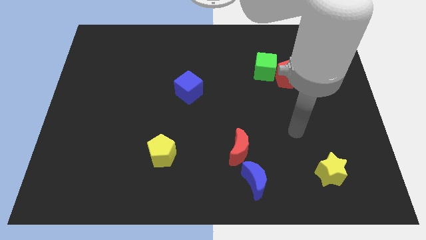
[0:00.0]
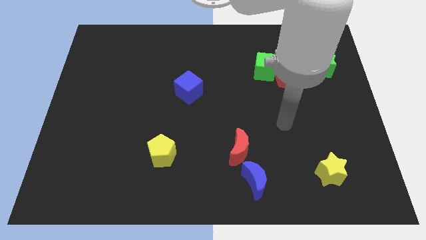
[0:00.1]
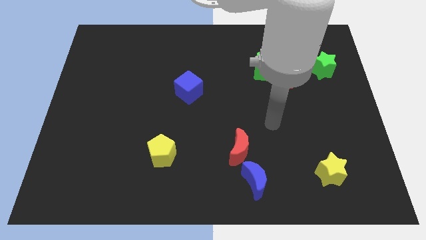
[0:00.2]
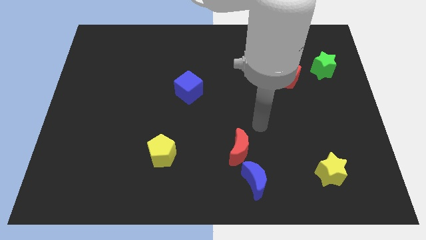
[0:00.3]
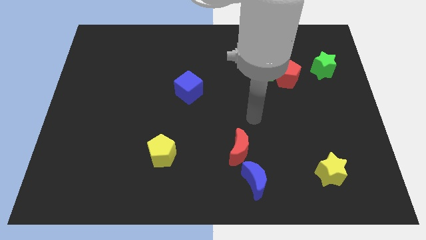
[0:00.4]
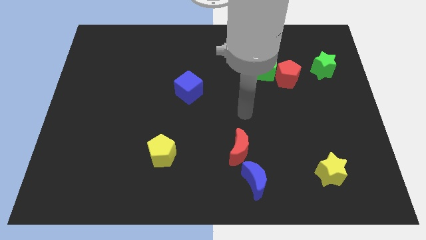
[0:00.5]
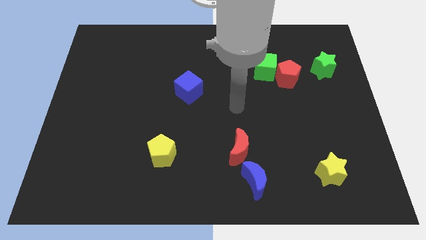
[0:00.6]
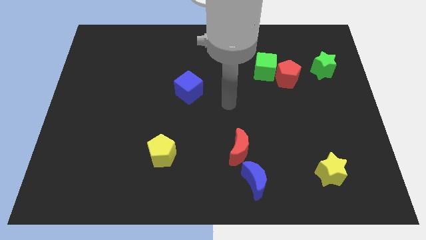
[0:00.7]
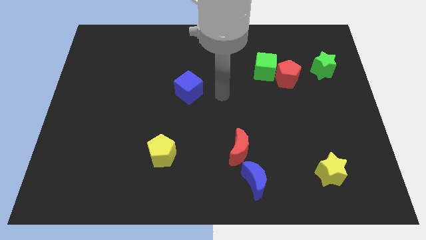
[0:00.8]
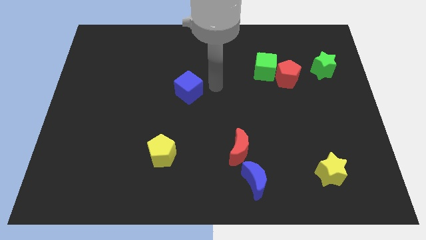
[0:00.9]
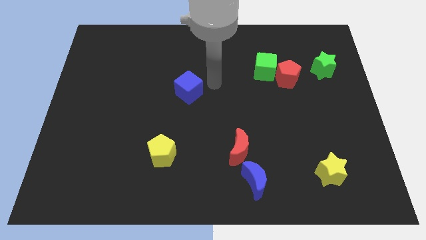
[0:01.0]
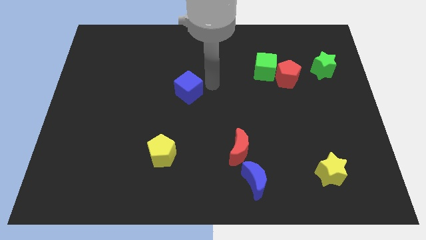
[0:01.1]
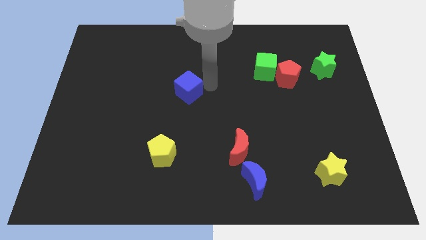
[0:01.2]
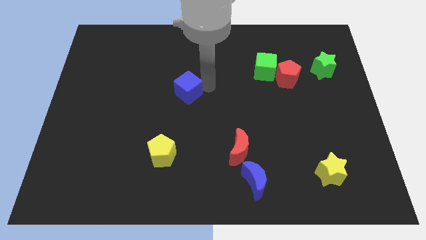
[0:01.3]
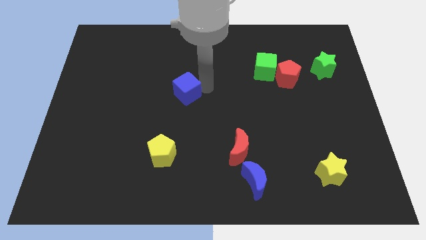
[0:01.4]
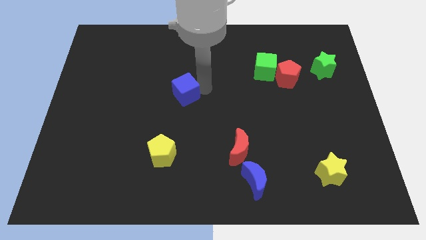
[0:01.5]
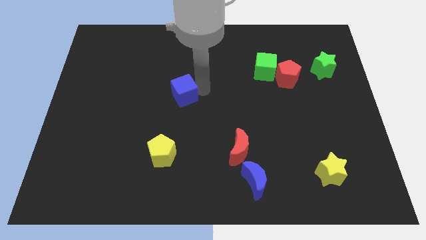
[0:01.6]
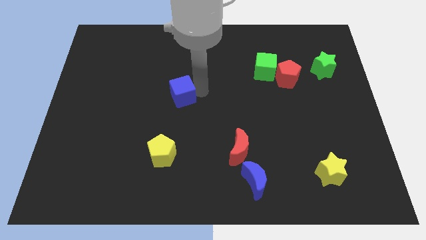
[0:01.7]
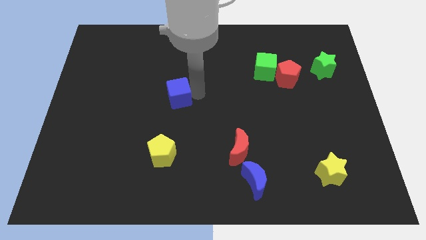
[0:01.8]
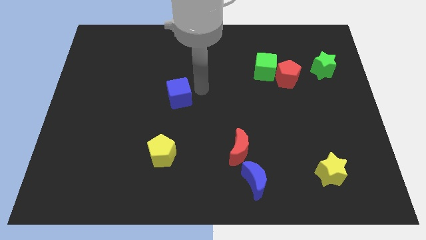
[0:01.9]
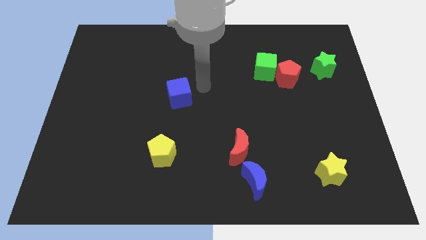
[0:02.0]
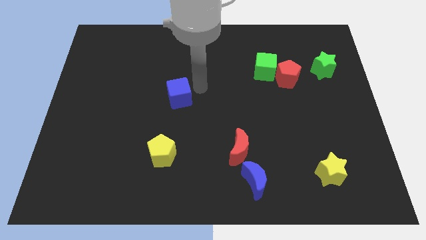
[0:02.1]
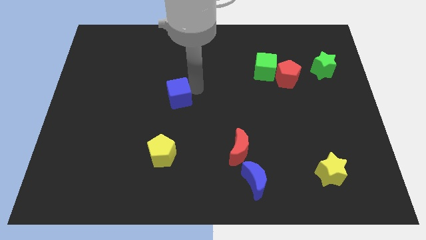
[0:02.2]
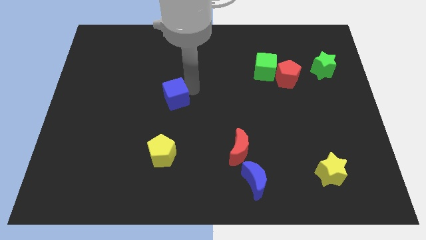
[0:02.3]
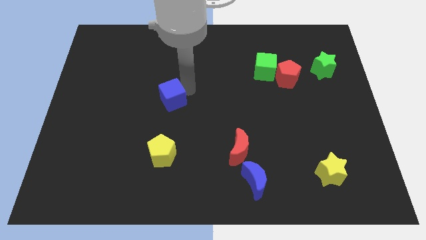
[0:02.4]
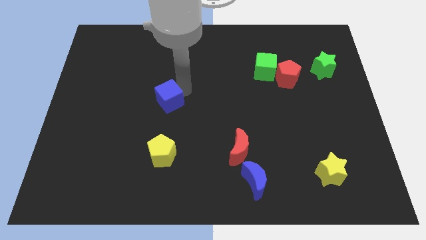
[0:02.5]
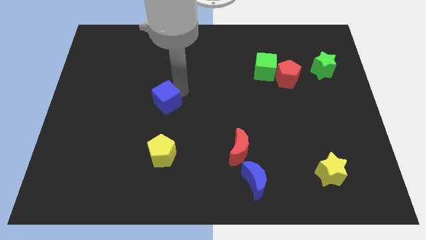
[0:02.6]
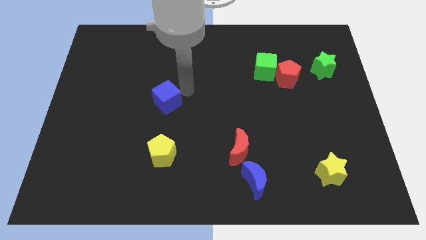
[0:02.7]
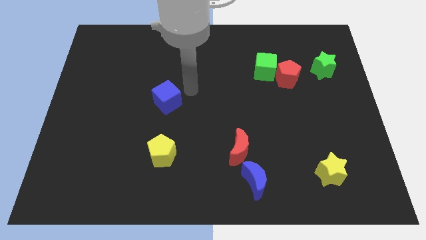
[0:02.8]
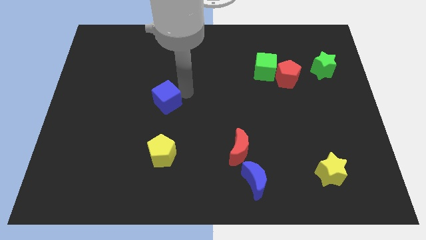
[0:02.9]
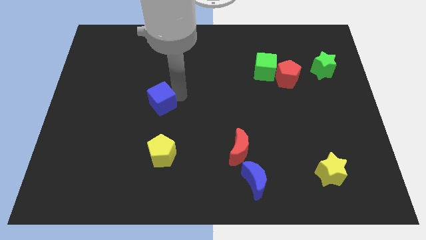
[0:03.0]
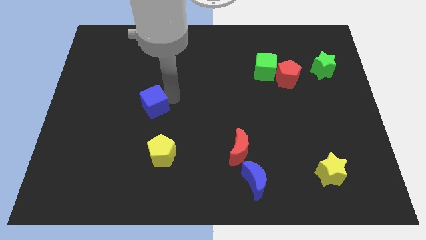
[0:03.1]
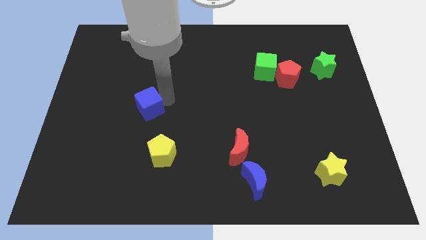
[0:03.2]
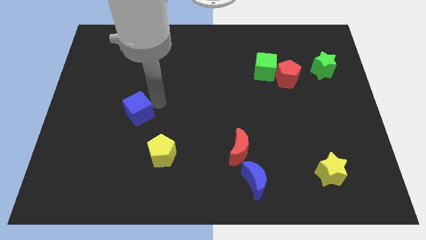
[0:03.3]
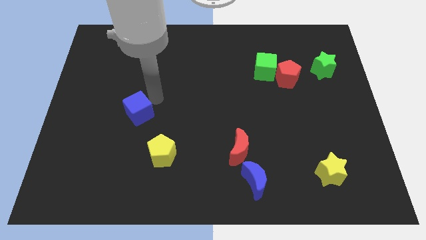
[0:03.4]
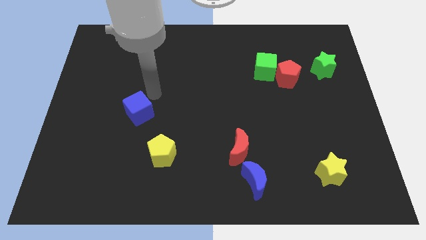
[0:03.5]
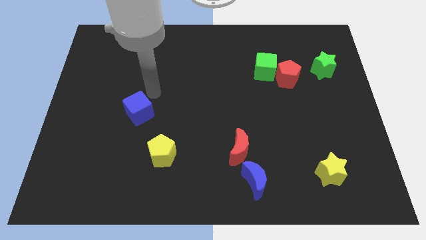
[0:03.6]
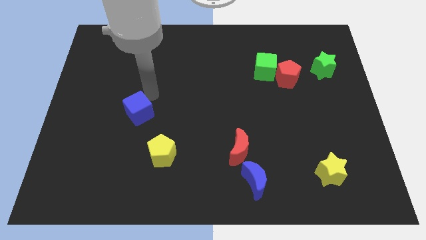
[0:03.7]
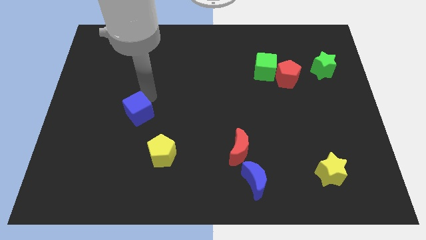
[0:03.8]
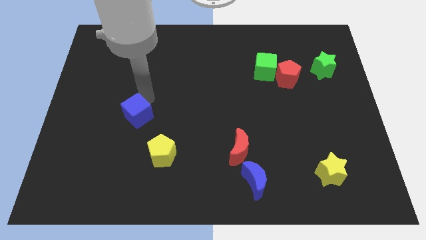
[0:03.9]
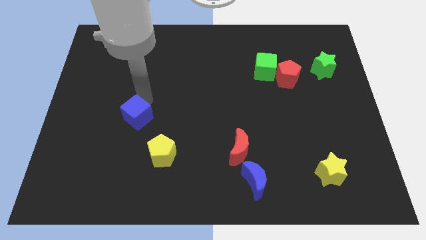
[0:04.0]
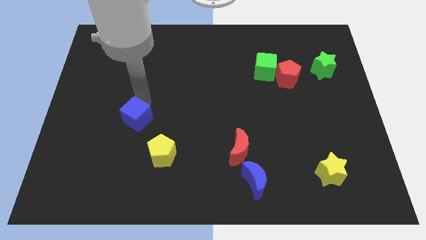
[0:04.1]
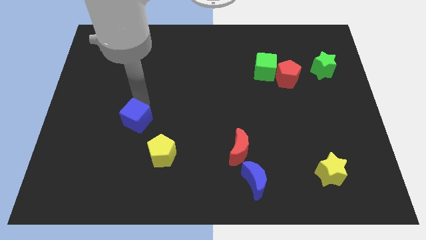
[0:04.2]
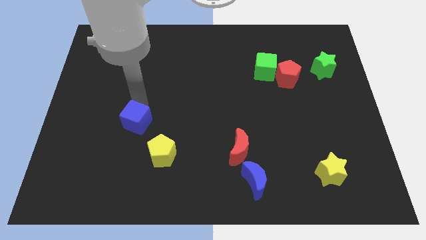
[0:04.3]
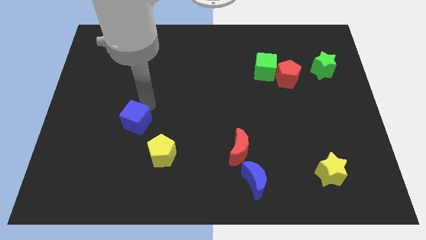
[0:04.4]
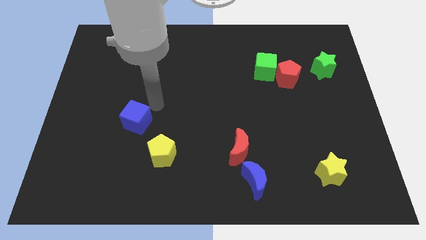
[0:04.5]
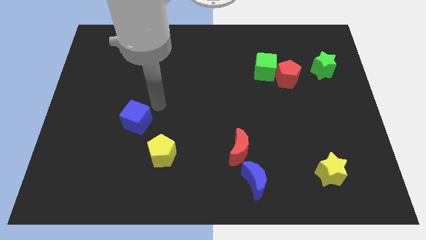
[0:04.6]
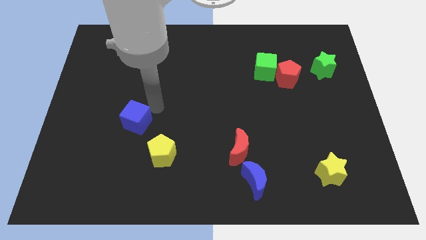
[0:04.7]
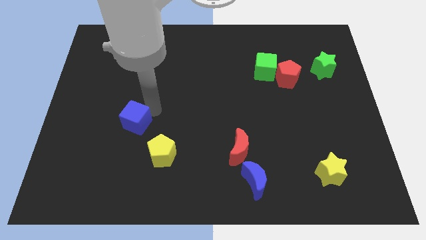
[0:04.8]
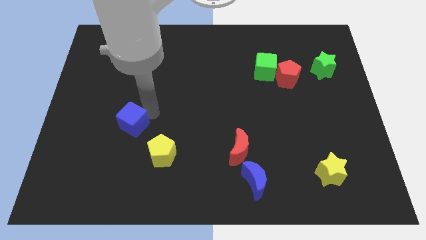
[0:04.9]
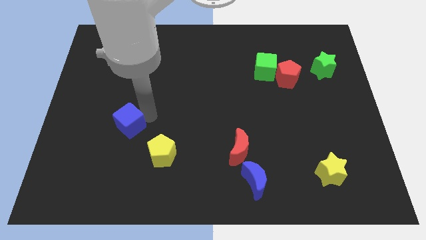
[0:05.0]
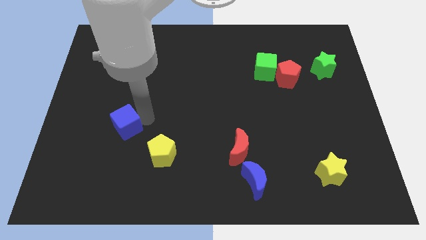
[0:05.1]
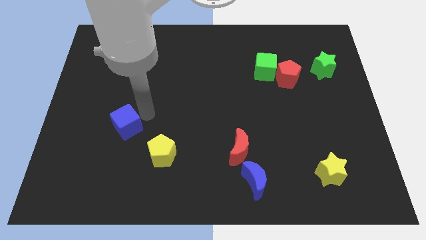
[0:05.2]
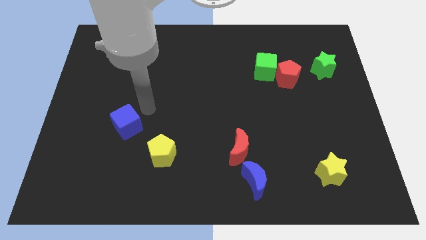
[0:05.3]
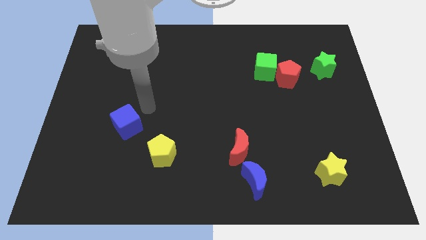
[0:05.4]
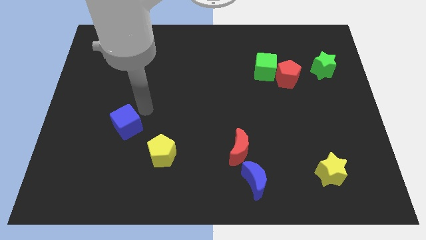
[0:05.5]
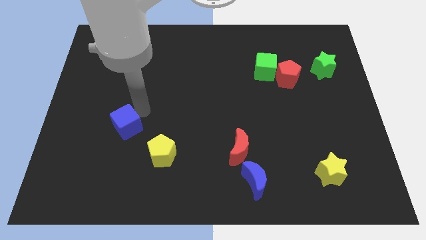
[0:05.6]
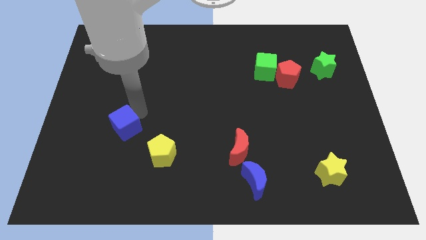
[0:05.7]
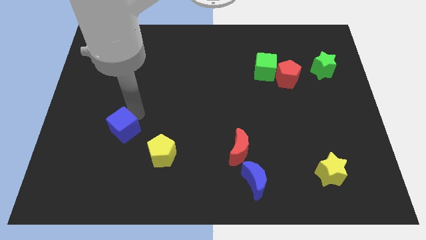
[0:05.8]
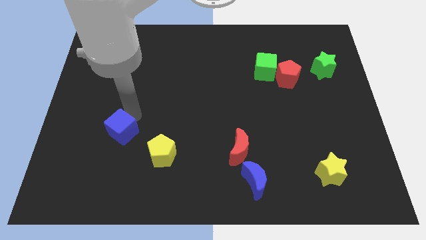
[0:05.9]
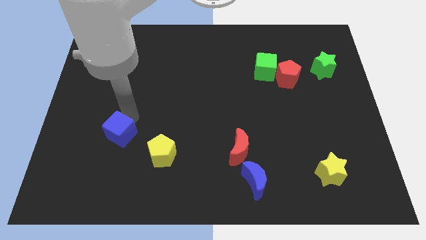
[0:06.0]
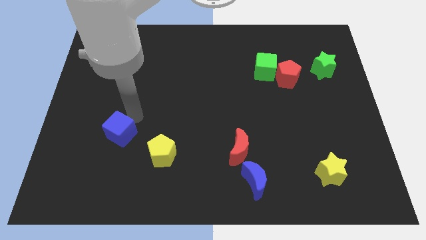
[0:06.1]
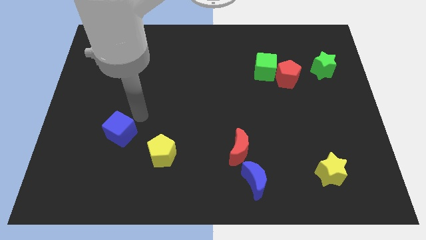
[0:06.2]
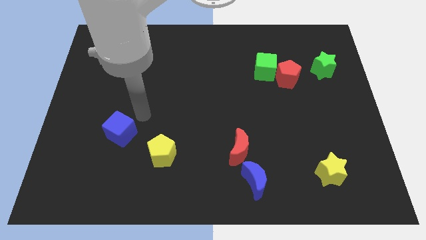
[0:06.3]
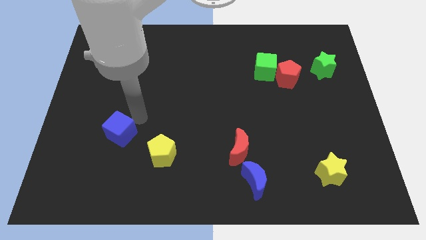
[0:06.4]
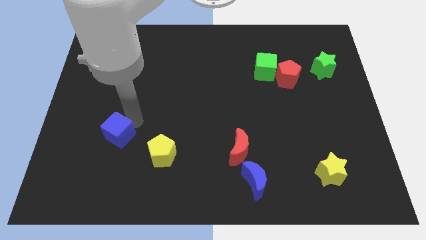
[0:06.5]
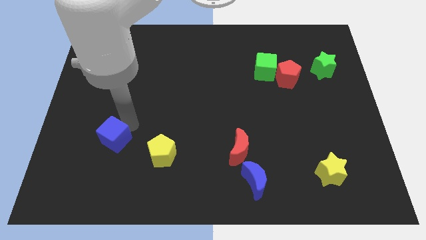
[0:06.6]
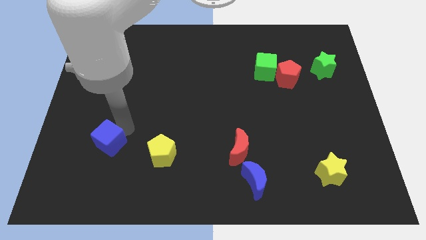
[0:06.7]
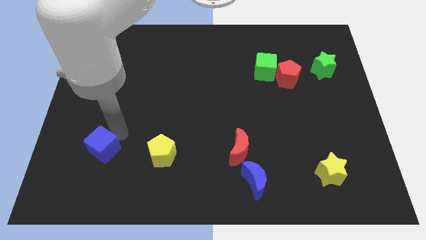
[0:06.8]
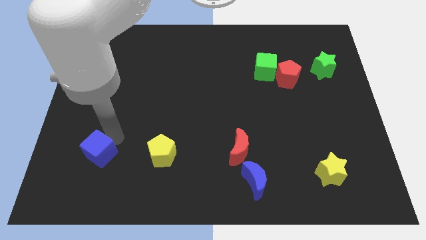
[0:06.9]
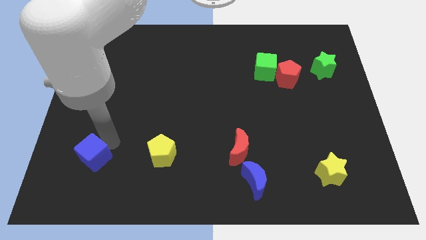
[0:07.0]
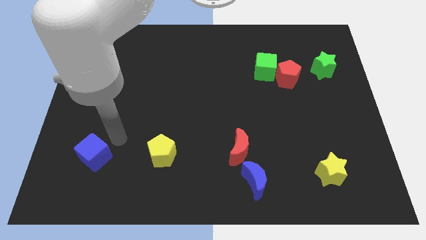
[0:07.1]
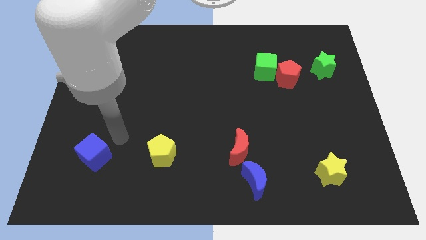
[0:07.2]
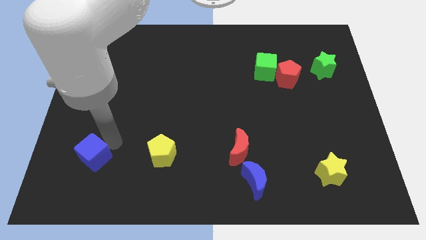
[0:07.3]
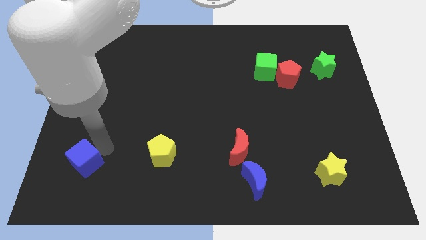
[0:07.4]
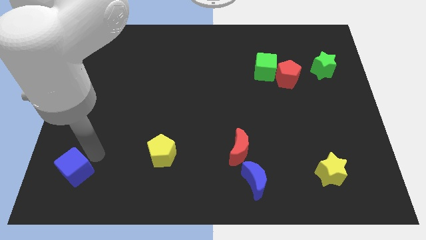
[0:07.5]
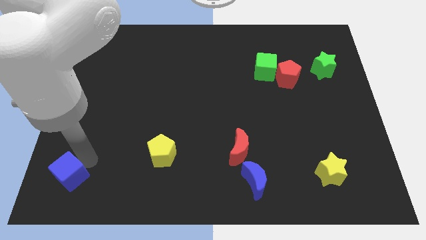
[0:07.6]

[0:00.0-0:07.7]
push the blue cube to the bottom left corner

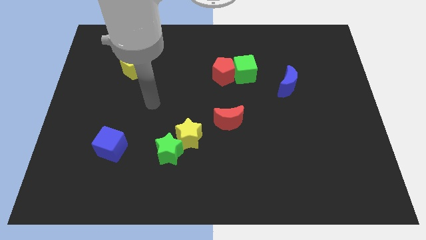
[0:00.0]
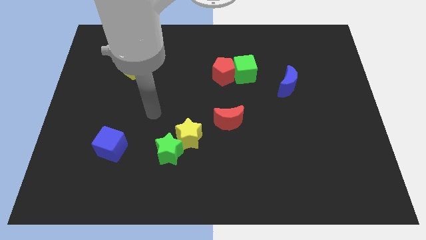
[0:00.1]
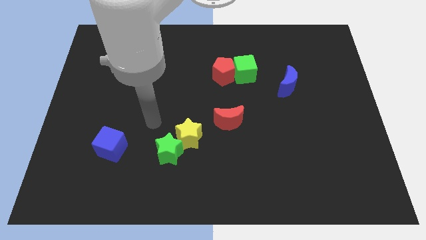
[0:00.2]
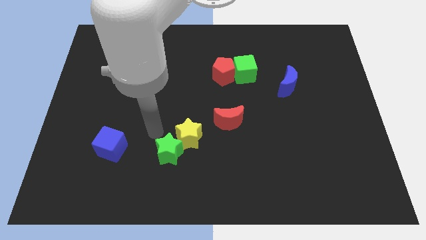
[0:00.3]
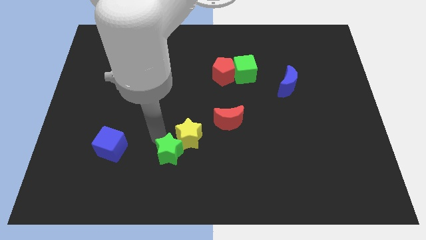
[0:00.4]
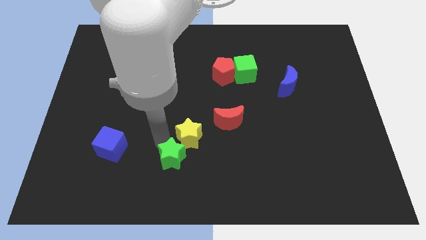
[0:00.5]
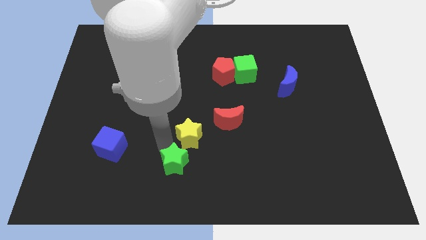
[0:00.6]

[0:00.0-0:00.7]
slide the green star to the bottom
